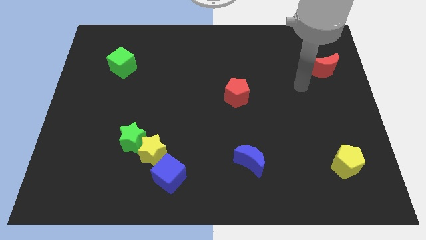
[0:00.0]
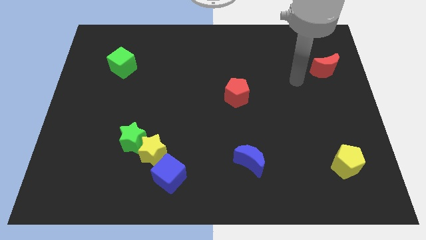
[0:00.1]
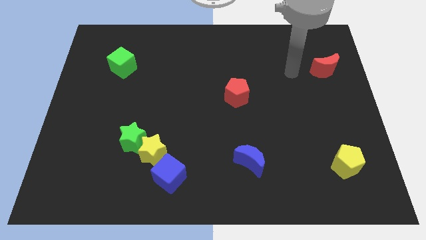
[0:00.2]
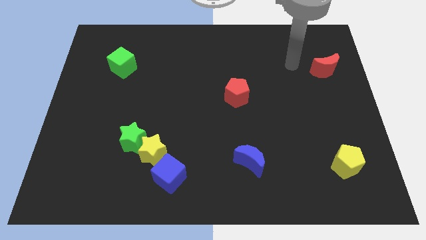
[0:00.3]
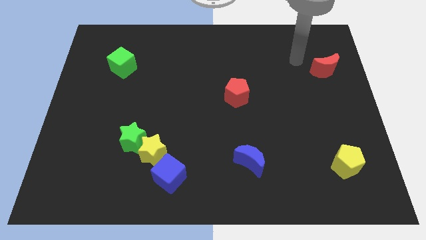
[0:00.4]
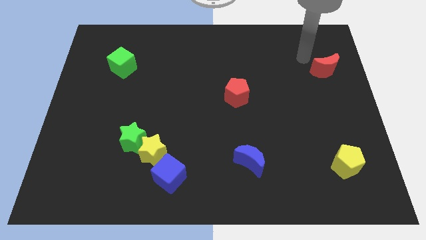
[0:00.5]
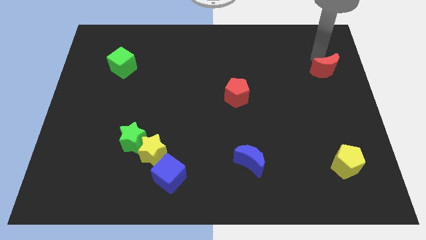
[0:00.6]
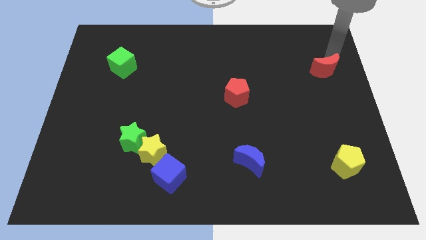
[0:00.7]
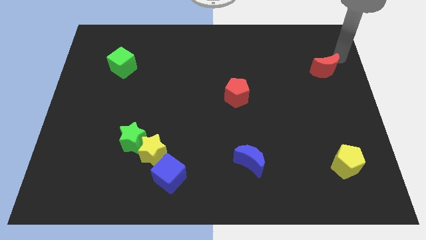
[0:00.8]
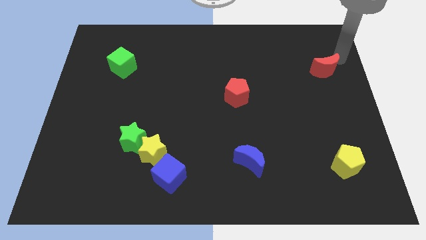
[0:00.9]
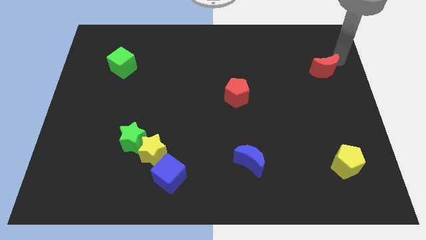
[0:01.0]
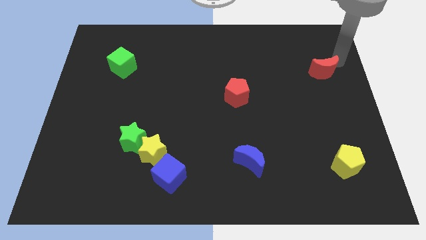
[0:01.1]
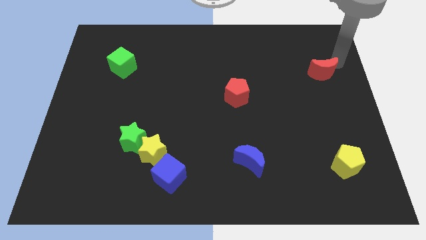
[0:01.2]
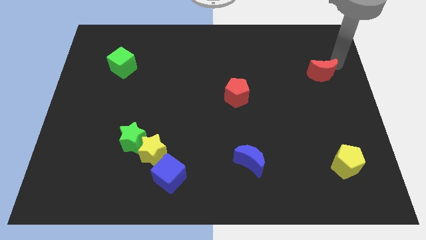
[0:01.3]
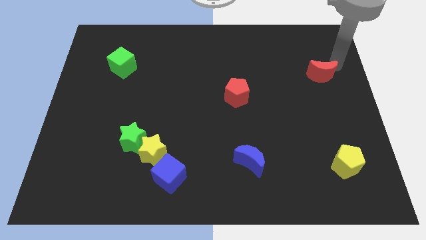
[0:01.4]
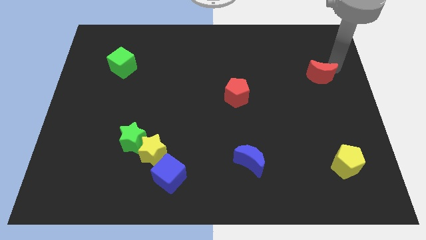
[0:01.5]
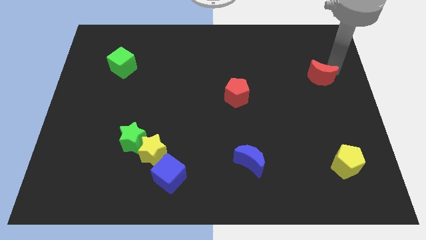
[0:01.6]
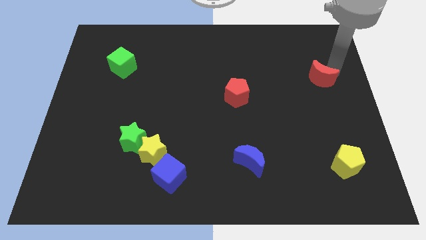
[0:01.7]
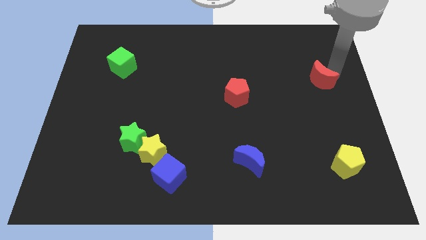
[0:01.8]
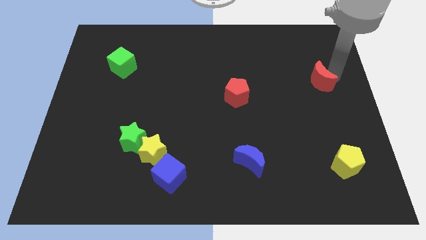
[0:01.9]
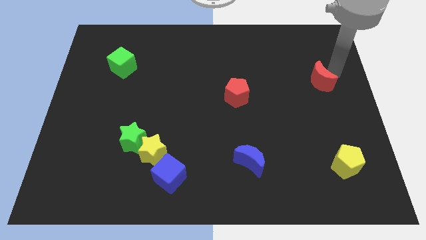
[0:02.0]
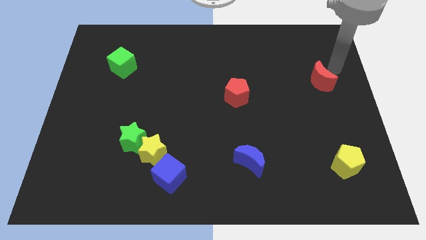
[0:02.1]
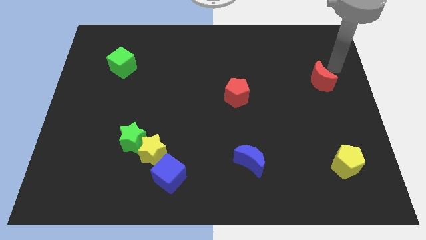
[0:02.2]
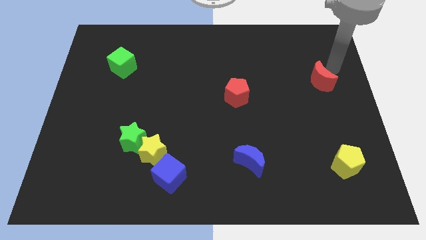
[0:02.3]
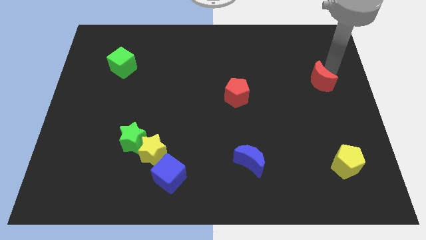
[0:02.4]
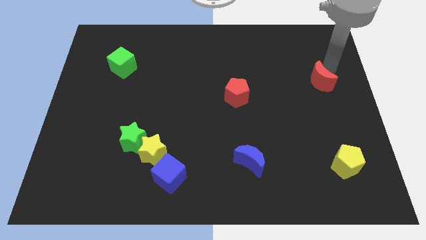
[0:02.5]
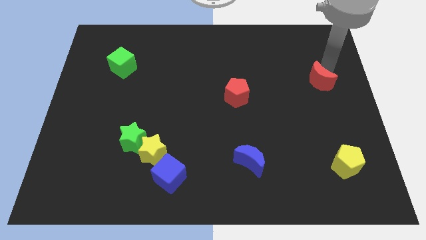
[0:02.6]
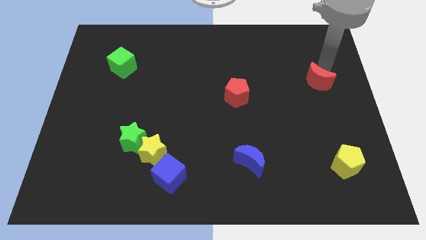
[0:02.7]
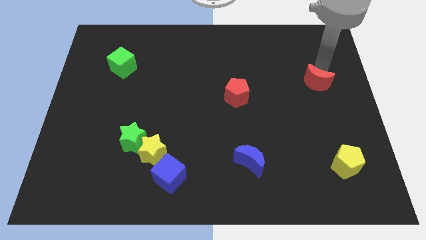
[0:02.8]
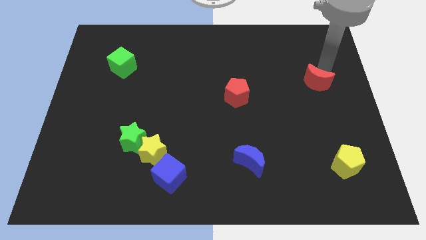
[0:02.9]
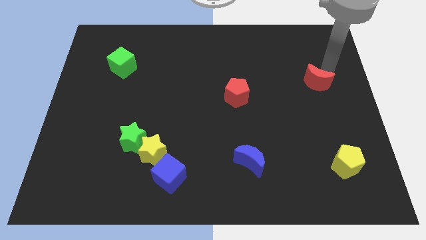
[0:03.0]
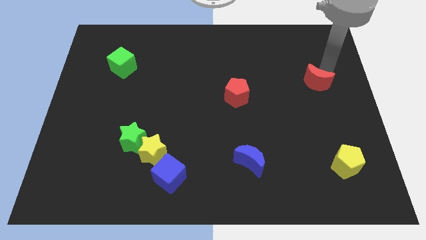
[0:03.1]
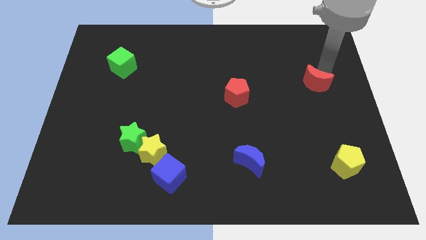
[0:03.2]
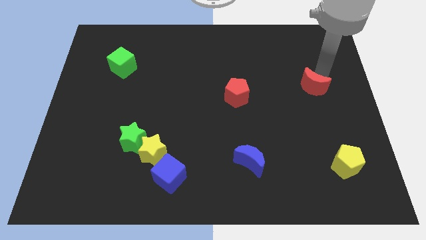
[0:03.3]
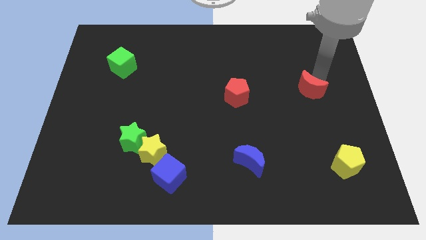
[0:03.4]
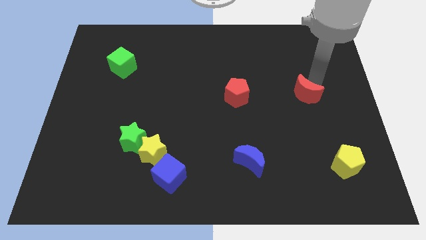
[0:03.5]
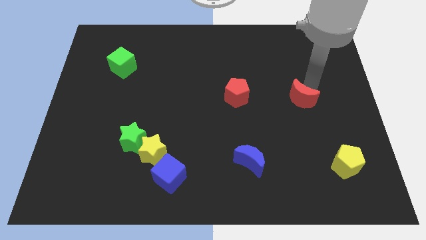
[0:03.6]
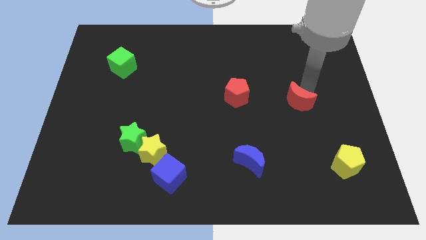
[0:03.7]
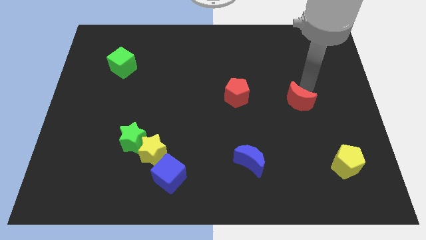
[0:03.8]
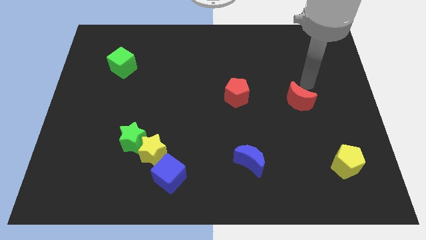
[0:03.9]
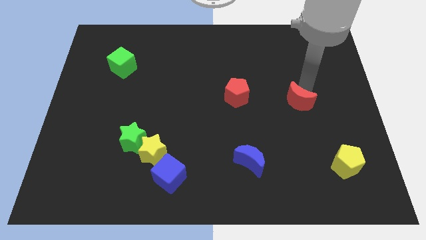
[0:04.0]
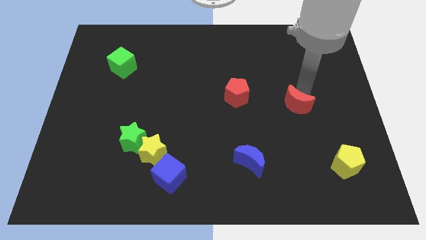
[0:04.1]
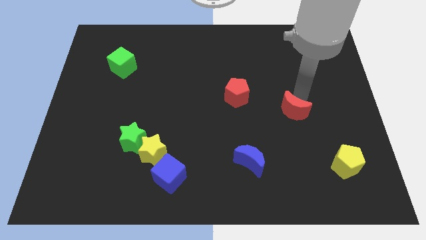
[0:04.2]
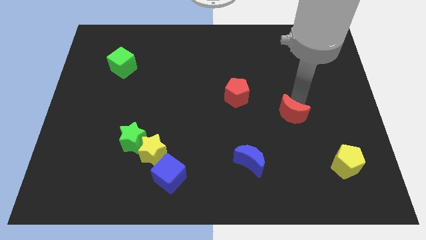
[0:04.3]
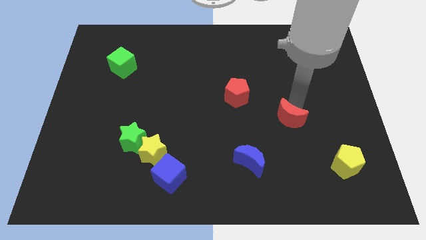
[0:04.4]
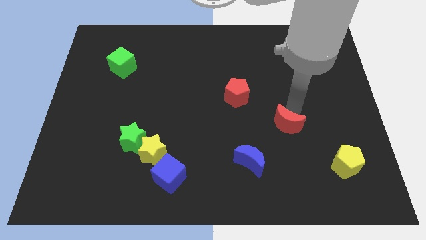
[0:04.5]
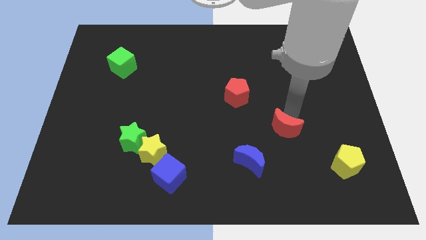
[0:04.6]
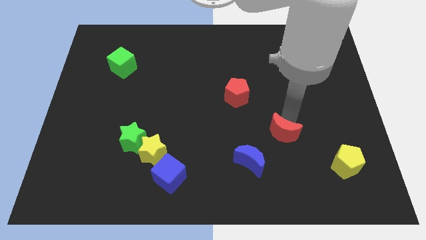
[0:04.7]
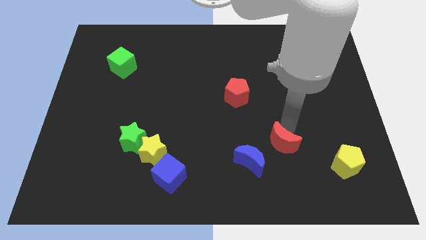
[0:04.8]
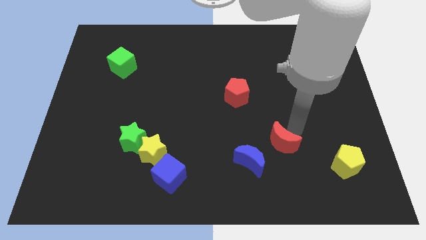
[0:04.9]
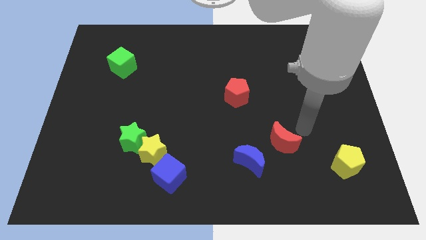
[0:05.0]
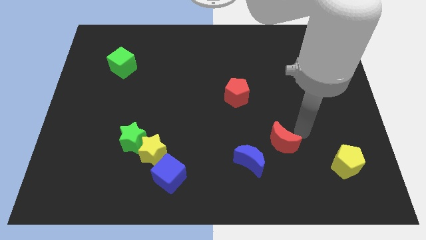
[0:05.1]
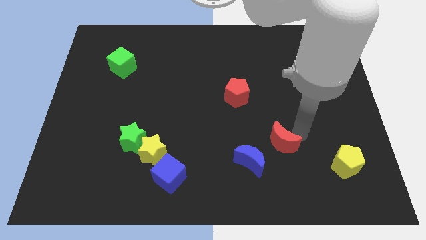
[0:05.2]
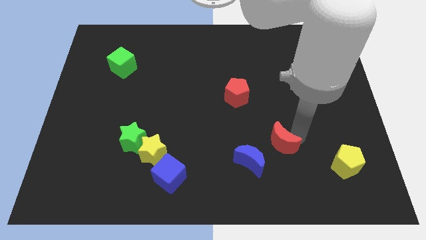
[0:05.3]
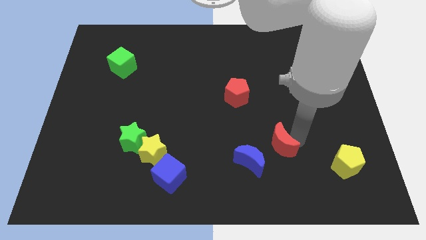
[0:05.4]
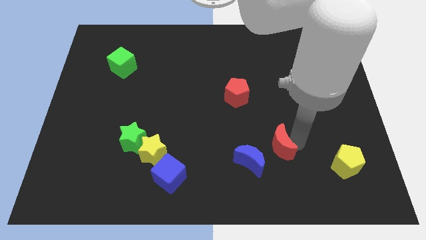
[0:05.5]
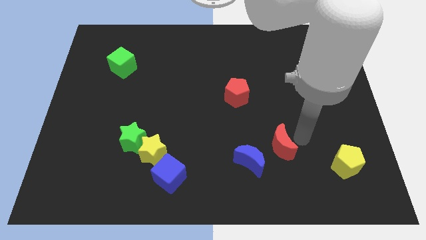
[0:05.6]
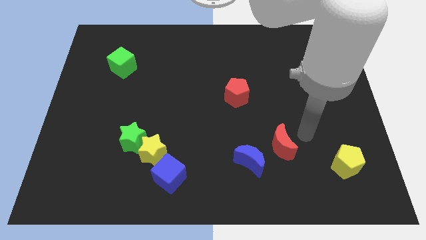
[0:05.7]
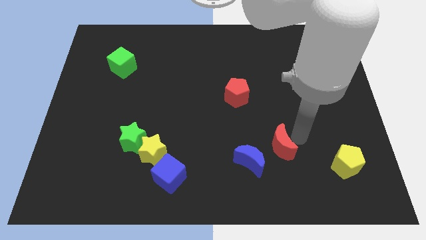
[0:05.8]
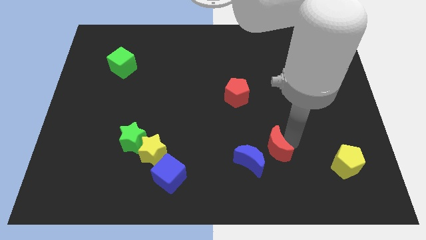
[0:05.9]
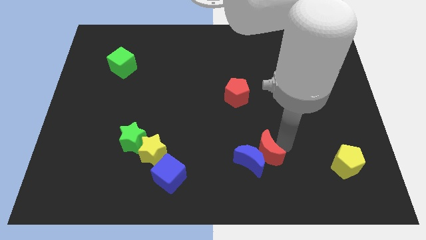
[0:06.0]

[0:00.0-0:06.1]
slide the red moon close to the blue moon

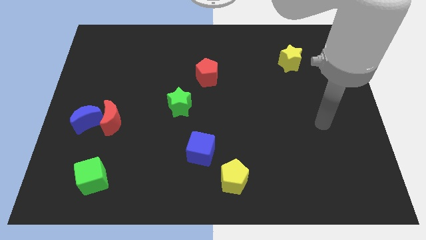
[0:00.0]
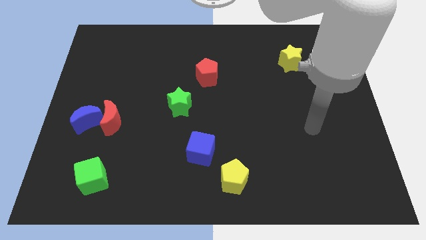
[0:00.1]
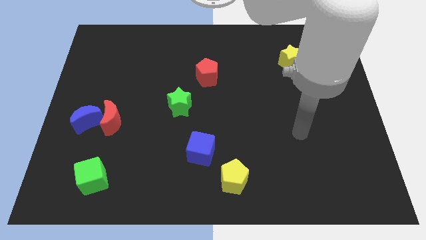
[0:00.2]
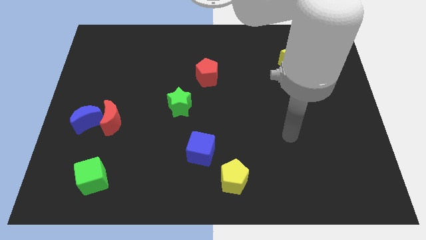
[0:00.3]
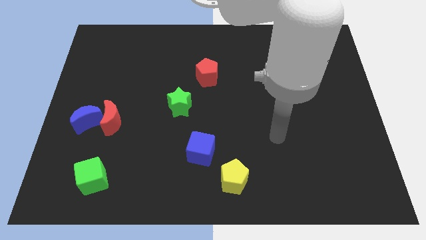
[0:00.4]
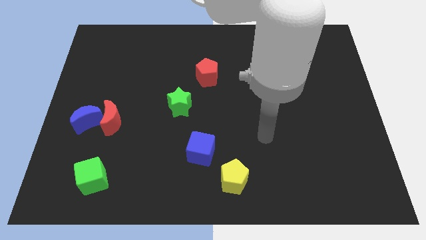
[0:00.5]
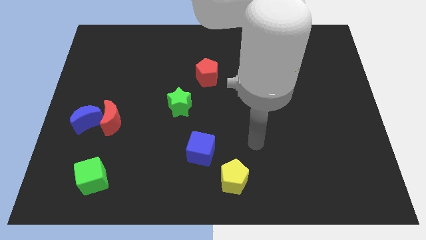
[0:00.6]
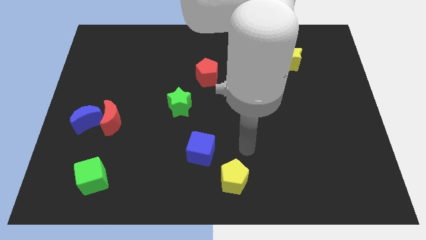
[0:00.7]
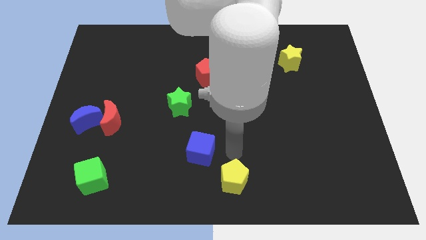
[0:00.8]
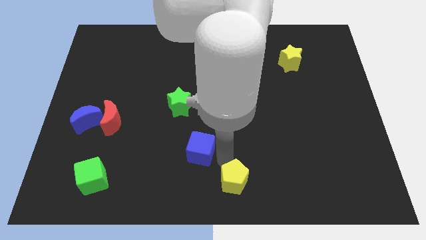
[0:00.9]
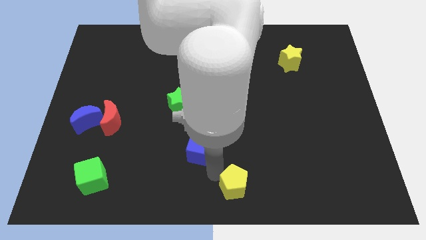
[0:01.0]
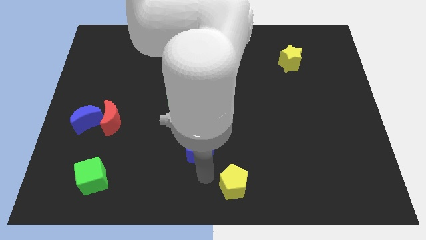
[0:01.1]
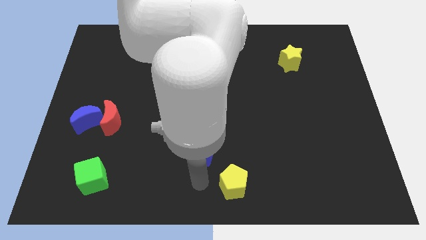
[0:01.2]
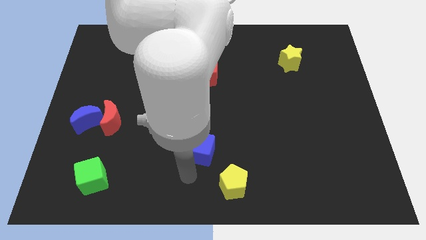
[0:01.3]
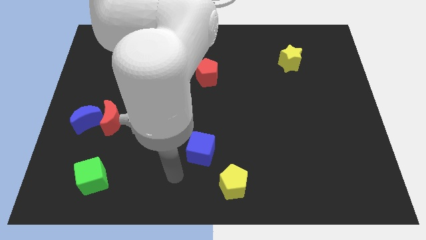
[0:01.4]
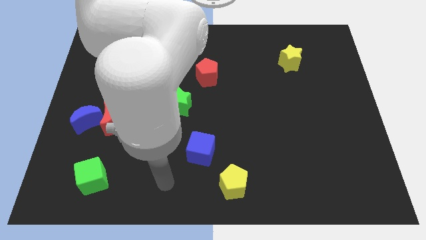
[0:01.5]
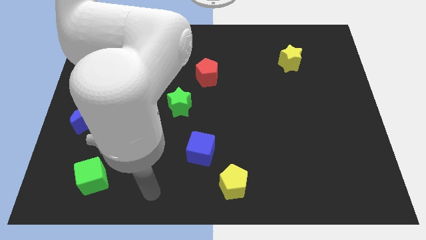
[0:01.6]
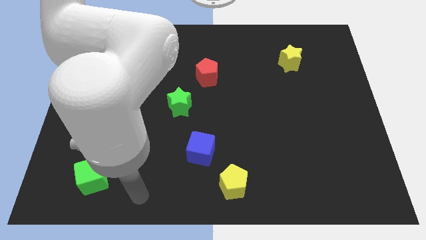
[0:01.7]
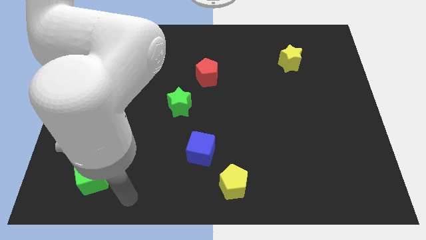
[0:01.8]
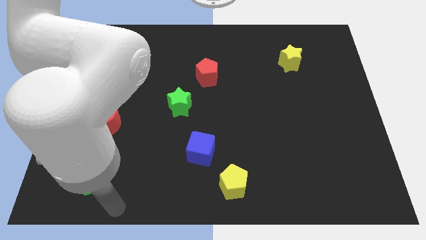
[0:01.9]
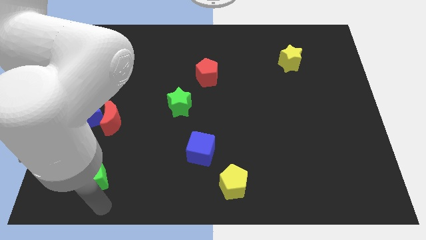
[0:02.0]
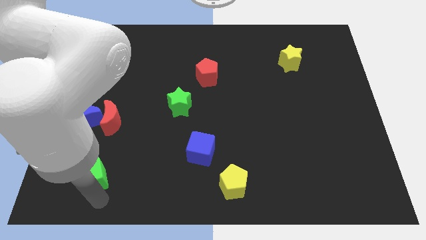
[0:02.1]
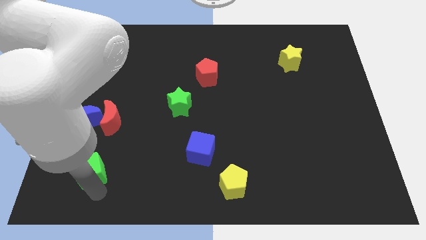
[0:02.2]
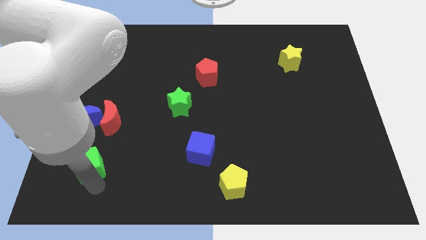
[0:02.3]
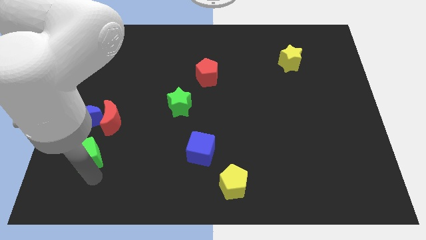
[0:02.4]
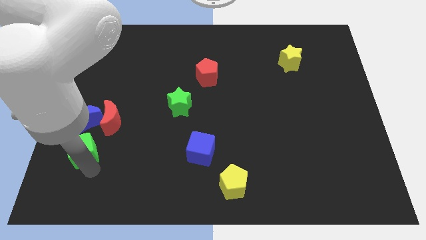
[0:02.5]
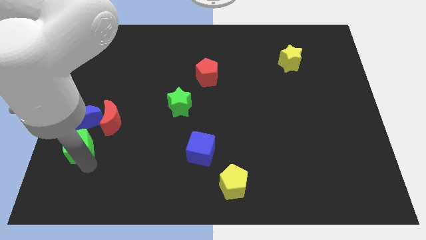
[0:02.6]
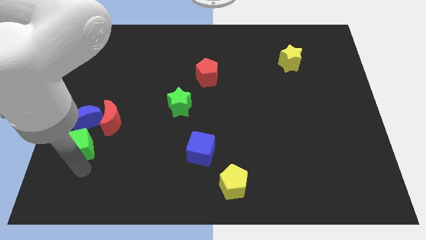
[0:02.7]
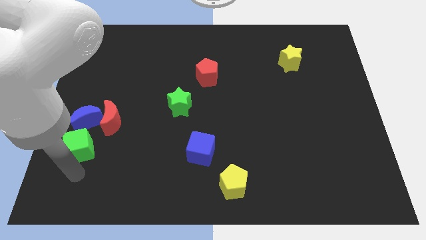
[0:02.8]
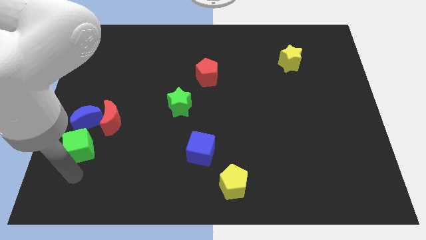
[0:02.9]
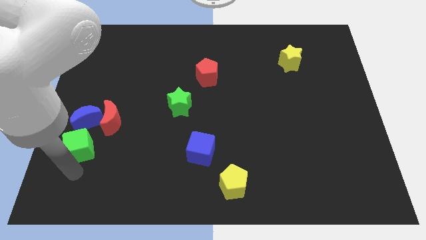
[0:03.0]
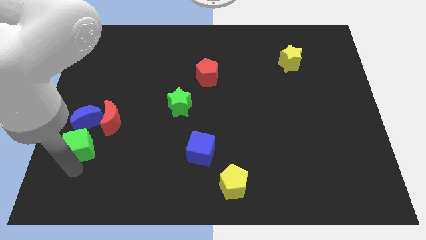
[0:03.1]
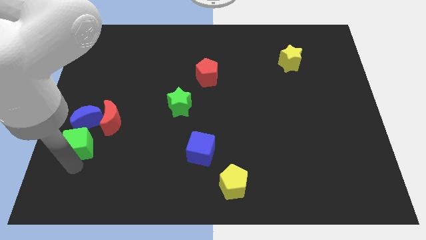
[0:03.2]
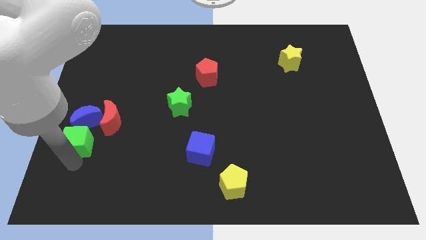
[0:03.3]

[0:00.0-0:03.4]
push the green cube to the blue moon
